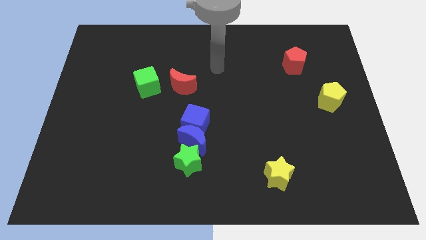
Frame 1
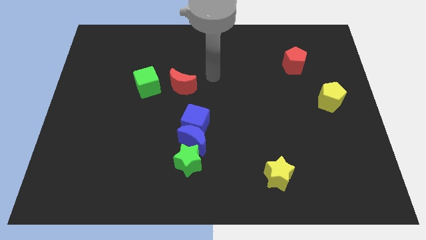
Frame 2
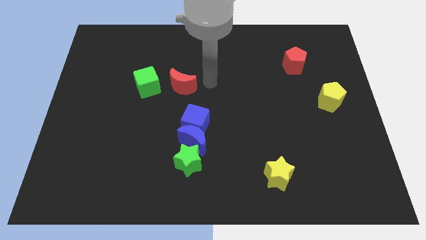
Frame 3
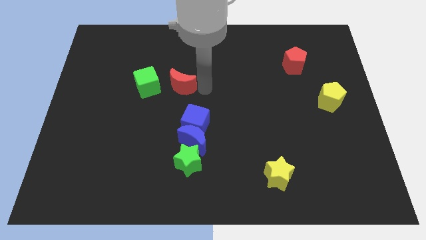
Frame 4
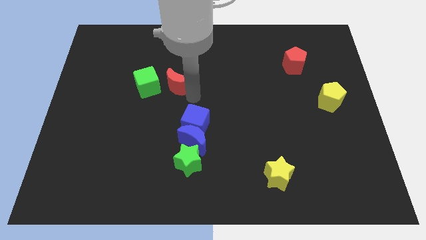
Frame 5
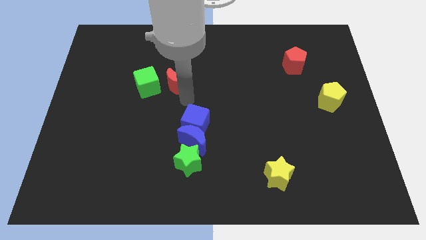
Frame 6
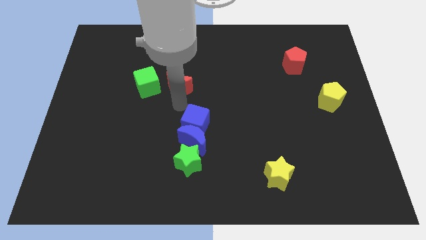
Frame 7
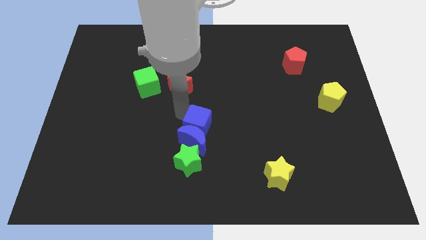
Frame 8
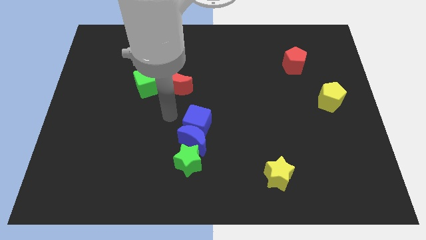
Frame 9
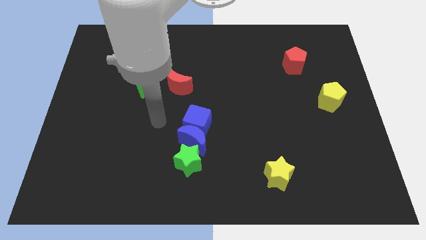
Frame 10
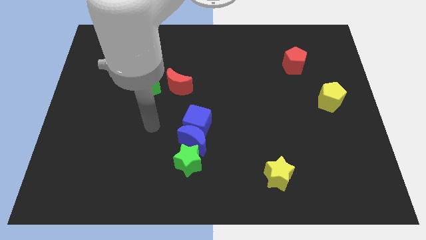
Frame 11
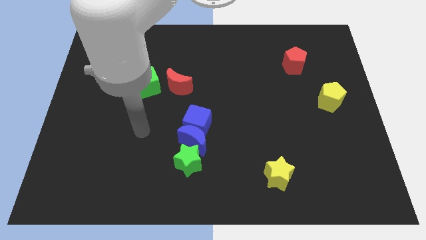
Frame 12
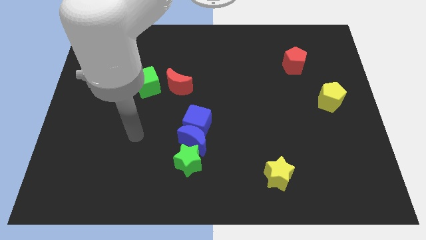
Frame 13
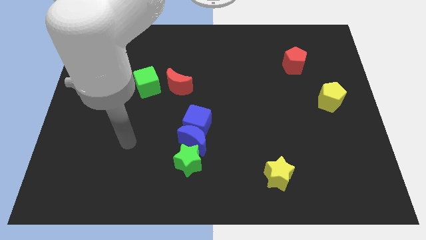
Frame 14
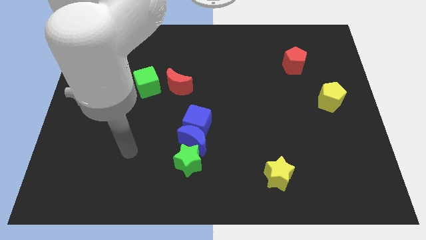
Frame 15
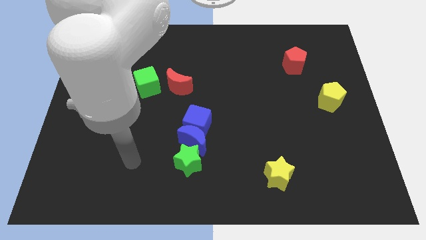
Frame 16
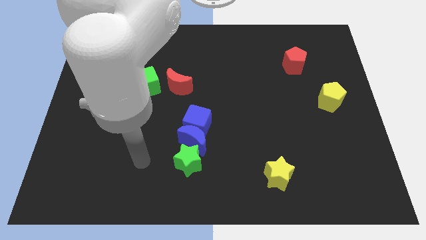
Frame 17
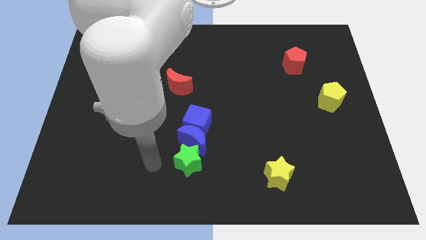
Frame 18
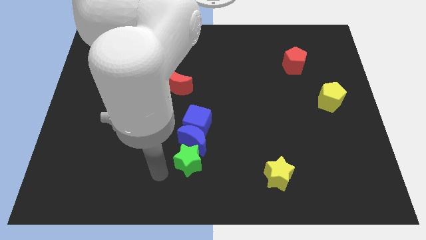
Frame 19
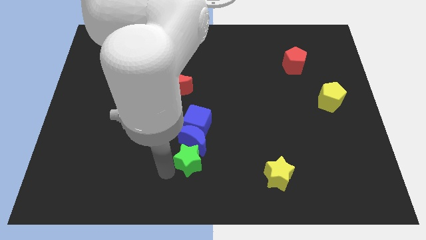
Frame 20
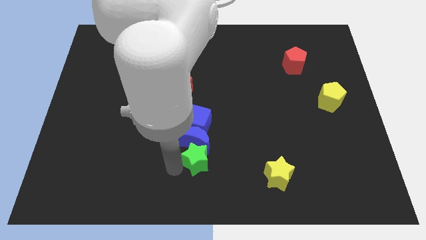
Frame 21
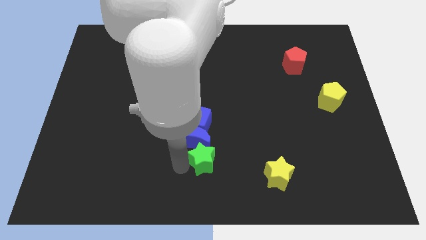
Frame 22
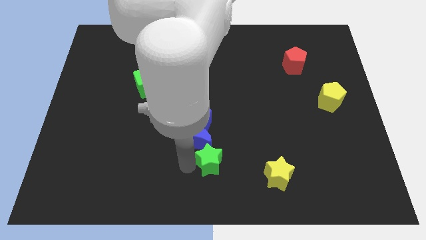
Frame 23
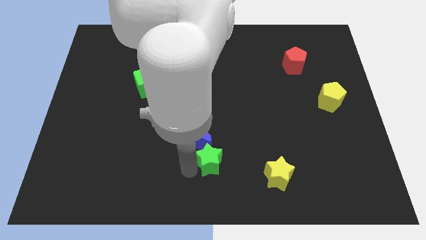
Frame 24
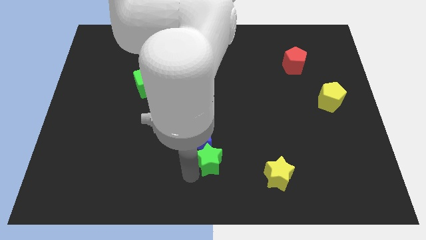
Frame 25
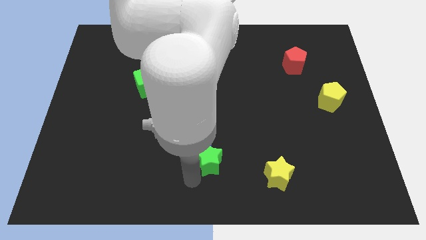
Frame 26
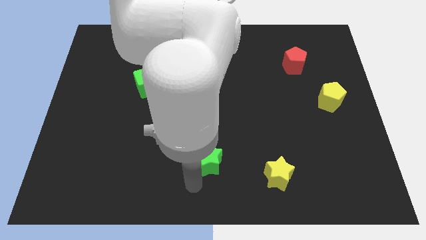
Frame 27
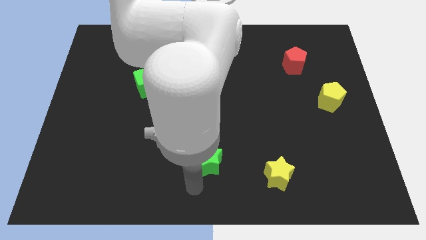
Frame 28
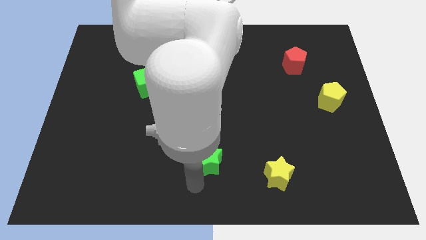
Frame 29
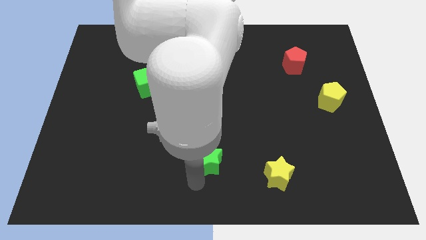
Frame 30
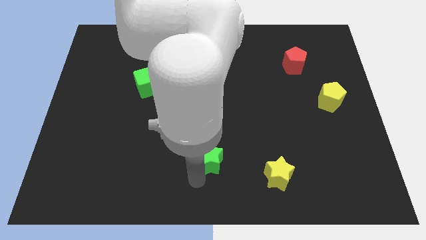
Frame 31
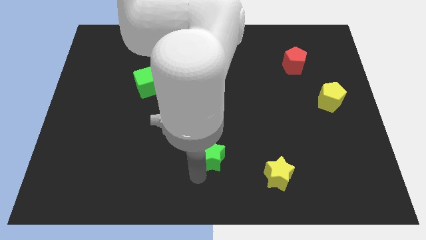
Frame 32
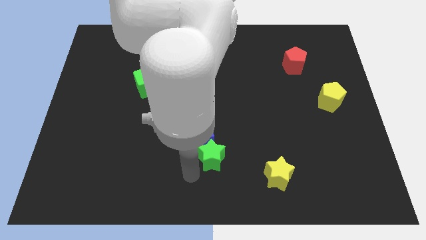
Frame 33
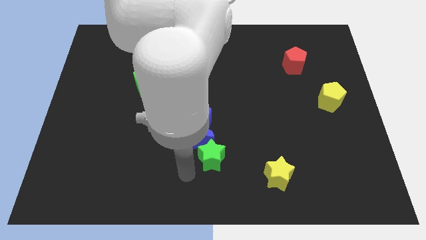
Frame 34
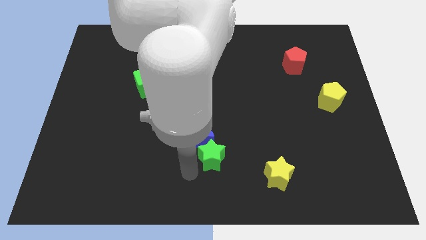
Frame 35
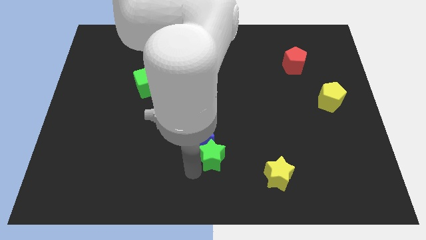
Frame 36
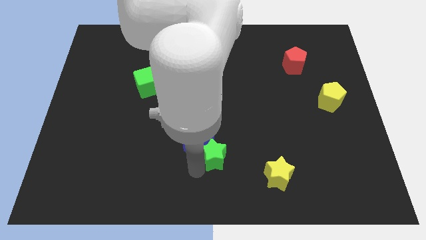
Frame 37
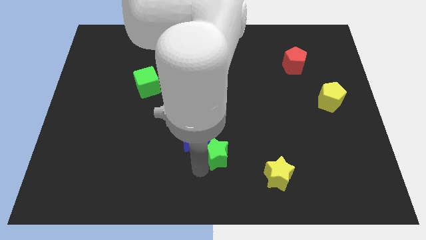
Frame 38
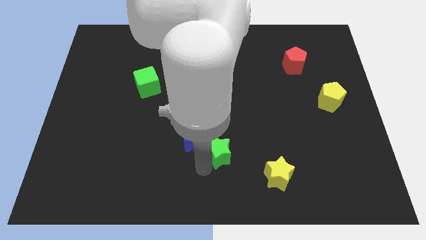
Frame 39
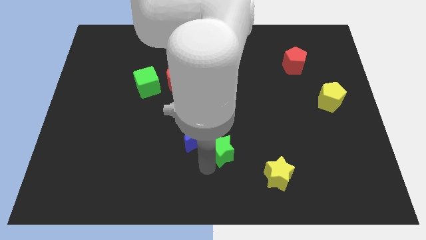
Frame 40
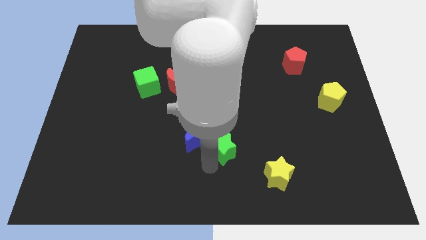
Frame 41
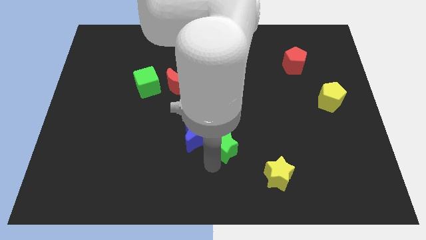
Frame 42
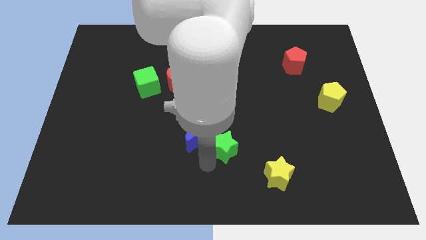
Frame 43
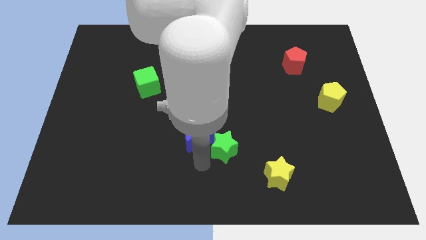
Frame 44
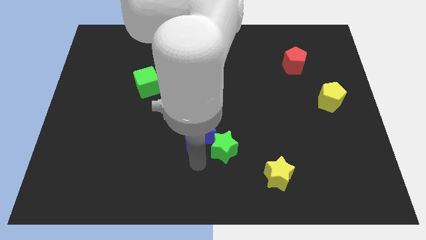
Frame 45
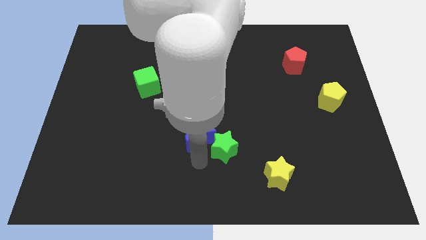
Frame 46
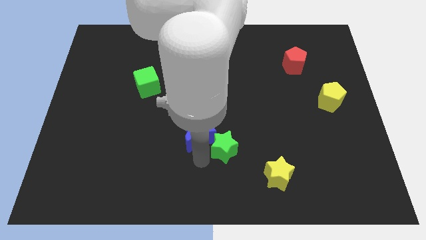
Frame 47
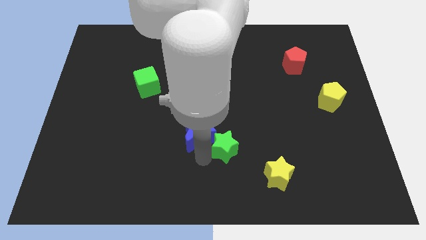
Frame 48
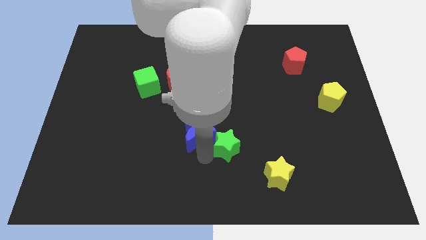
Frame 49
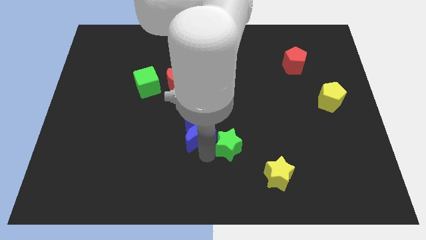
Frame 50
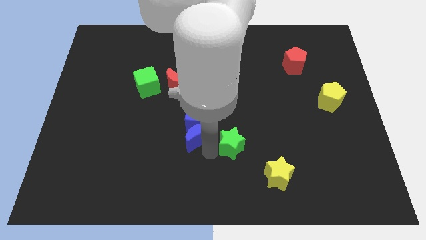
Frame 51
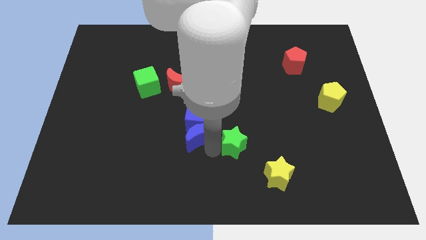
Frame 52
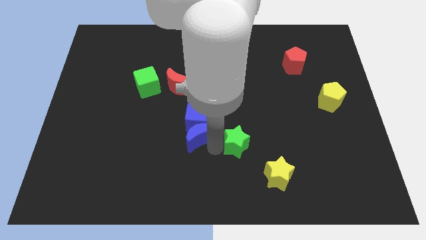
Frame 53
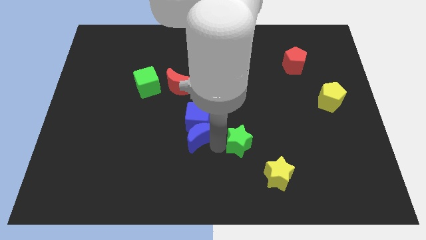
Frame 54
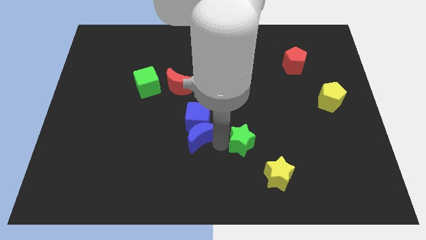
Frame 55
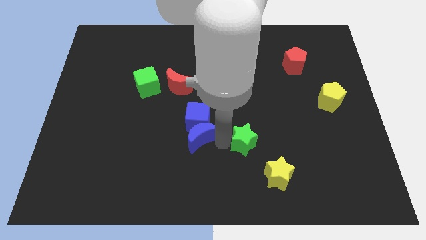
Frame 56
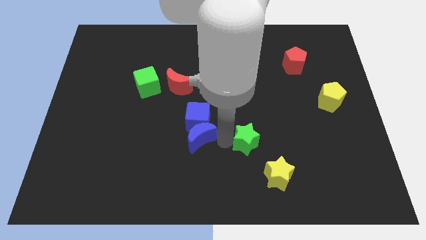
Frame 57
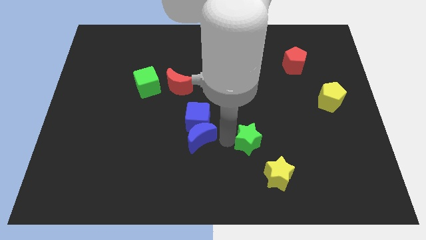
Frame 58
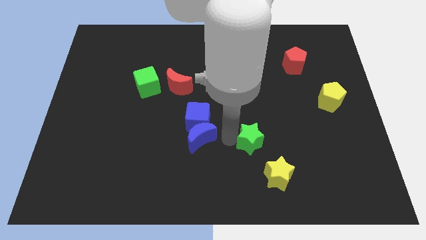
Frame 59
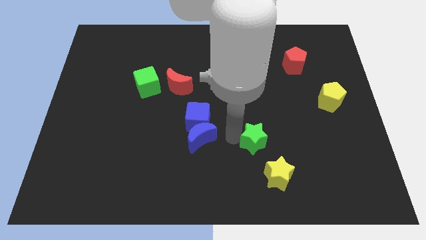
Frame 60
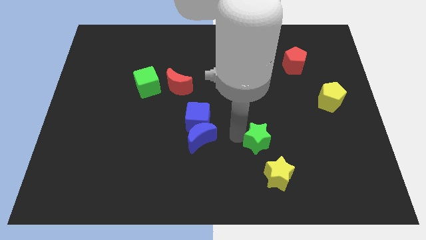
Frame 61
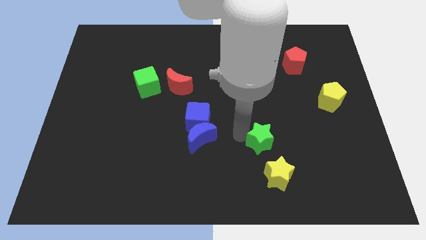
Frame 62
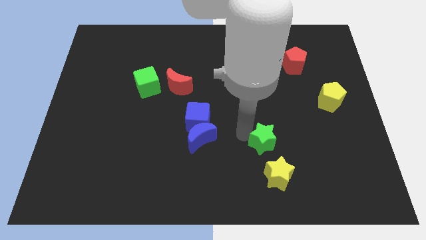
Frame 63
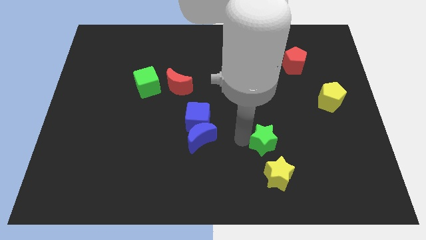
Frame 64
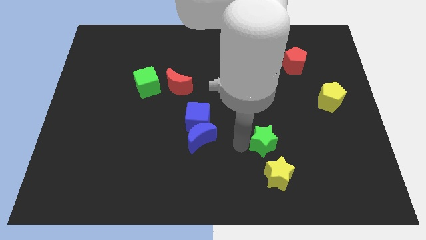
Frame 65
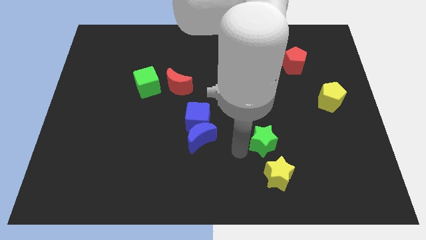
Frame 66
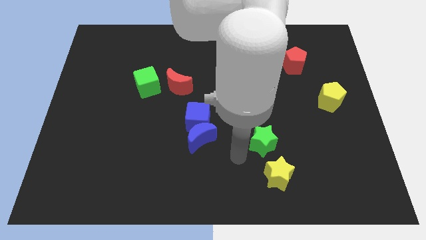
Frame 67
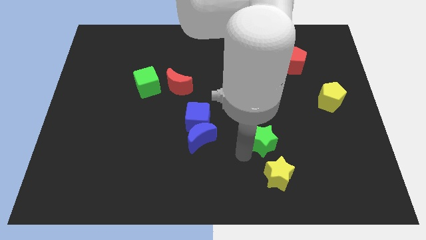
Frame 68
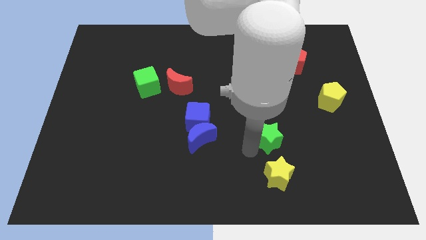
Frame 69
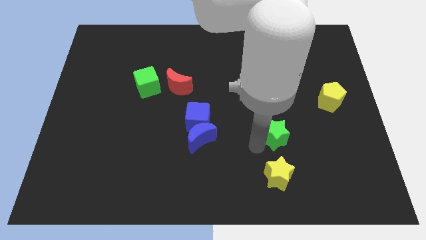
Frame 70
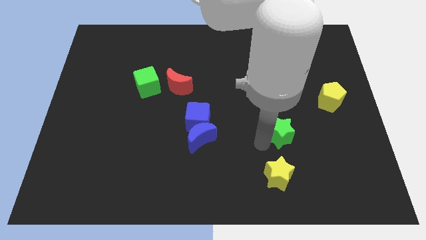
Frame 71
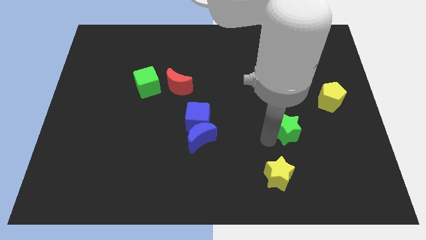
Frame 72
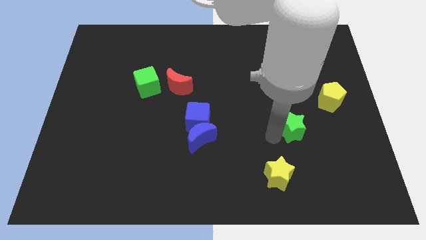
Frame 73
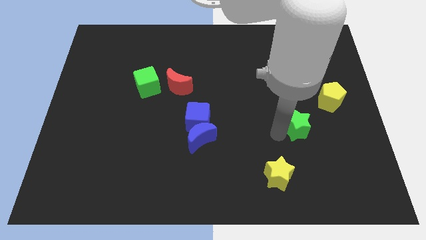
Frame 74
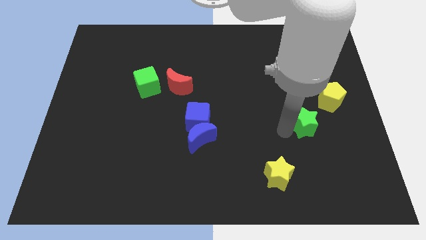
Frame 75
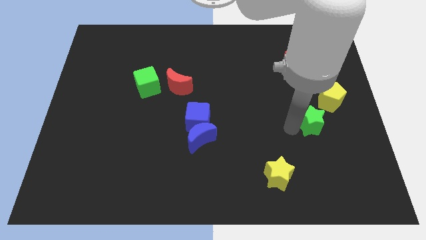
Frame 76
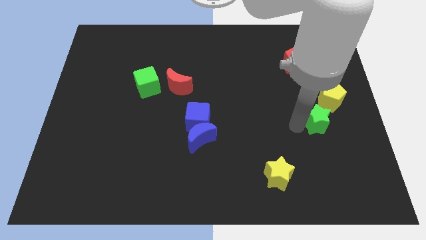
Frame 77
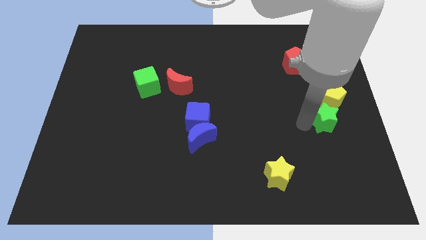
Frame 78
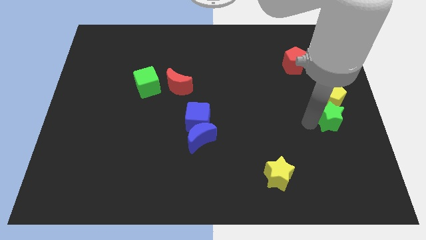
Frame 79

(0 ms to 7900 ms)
slide the green star to the right side

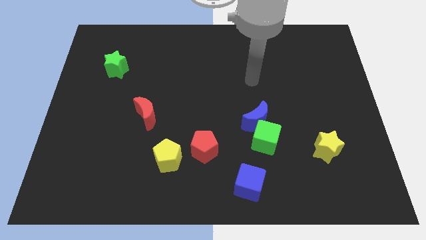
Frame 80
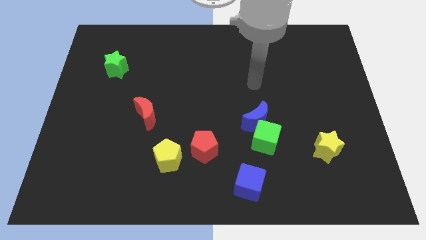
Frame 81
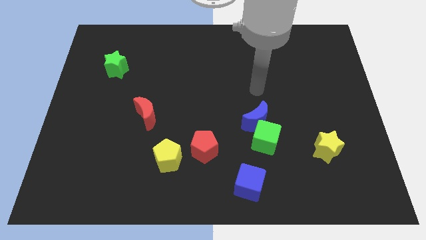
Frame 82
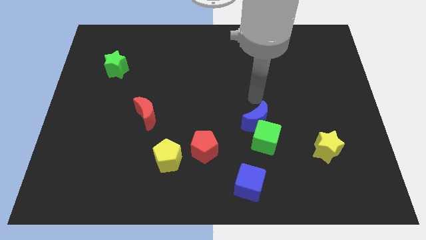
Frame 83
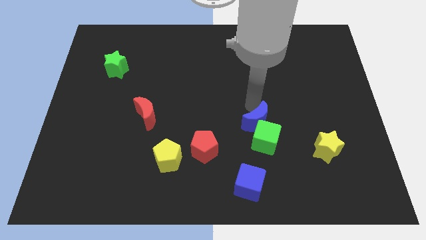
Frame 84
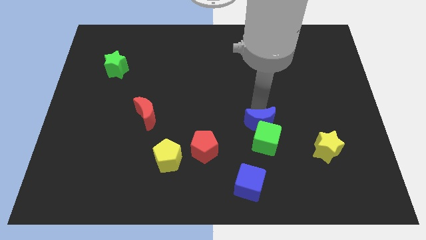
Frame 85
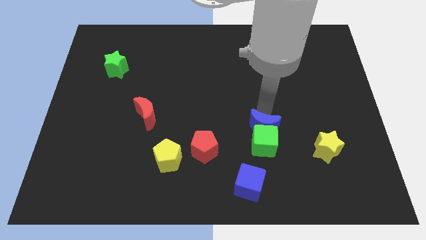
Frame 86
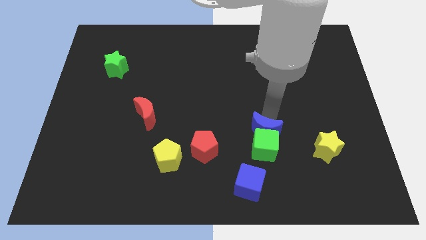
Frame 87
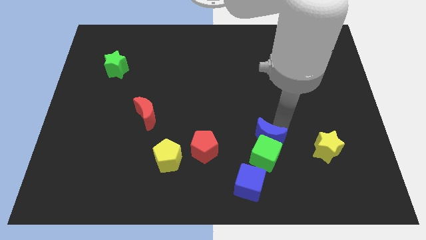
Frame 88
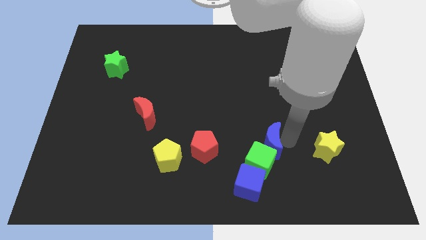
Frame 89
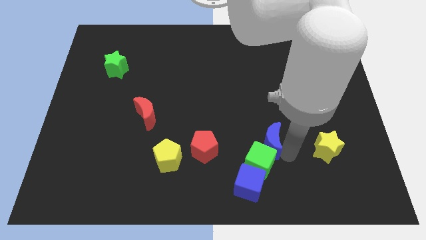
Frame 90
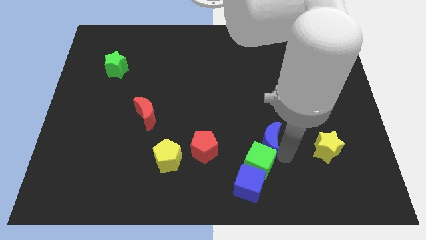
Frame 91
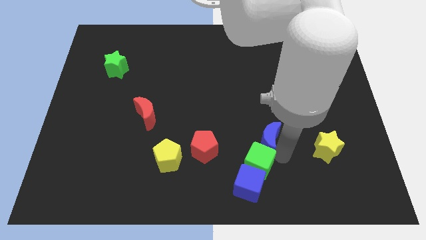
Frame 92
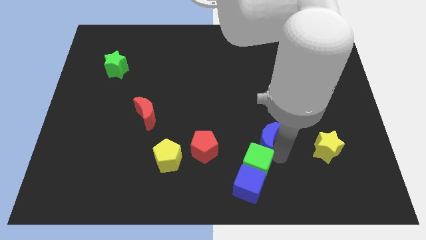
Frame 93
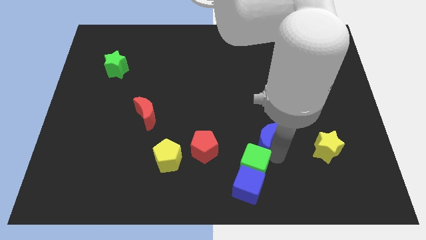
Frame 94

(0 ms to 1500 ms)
put the green cube to the bottom
